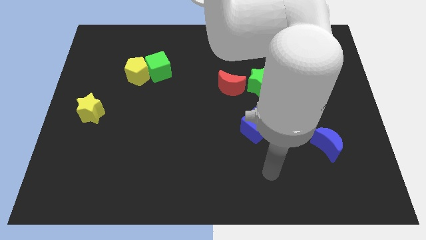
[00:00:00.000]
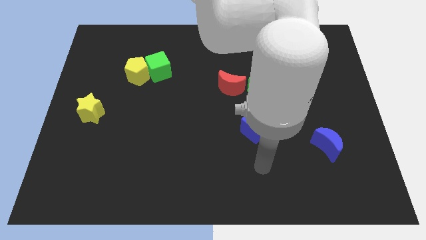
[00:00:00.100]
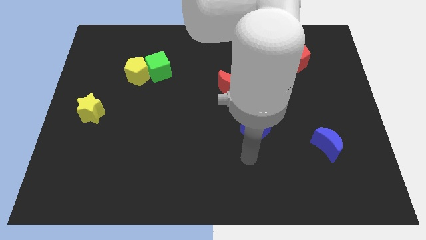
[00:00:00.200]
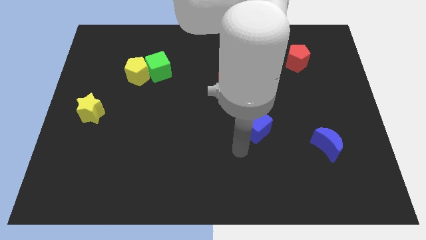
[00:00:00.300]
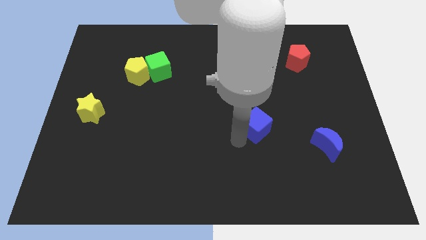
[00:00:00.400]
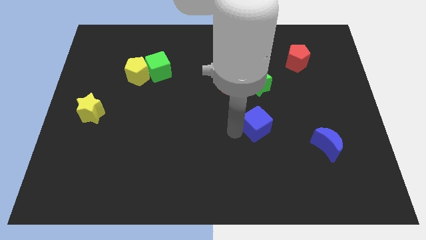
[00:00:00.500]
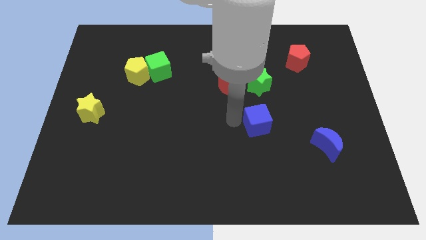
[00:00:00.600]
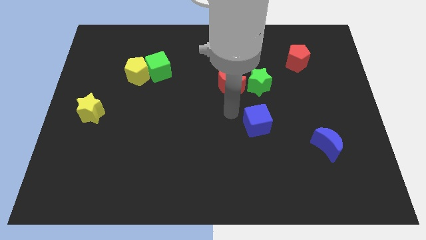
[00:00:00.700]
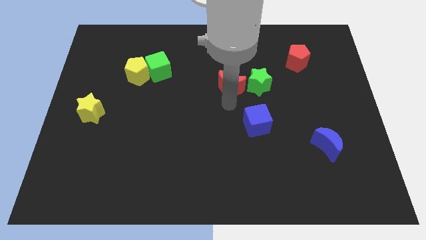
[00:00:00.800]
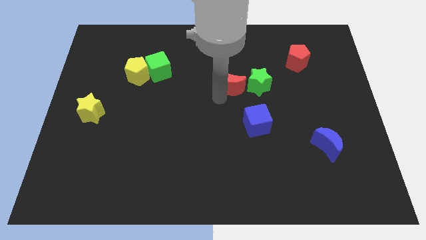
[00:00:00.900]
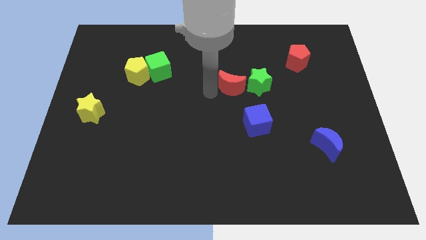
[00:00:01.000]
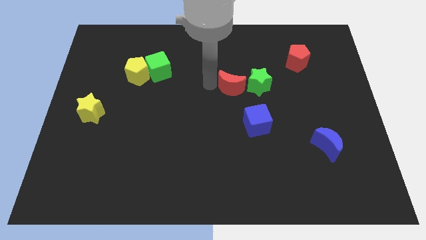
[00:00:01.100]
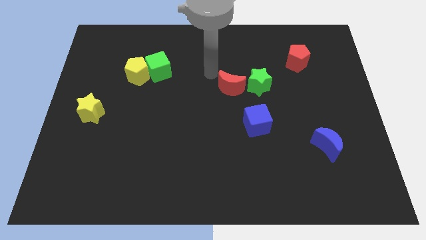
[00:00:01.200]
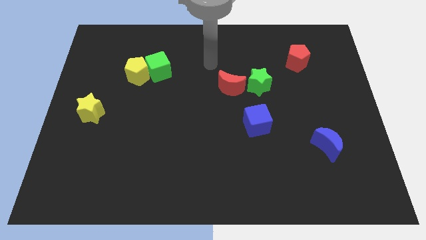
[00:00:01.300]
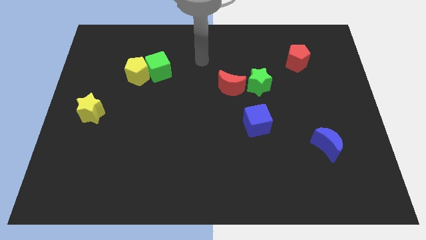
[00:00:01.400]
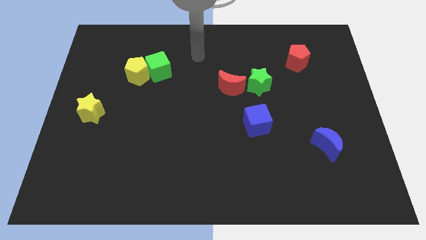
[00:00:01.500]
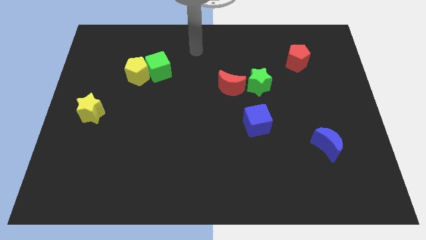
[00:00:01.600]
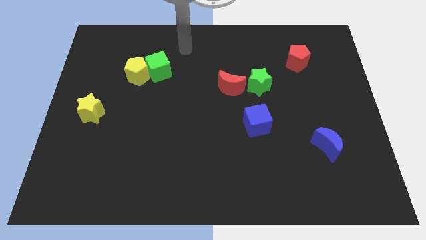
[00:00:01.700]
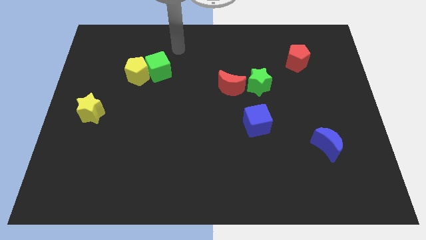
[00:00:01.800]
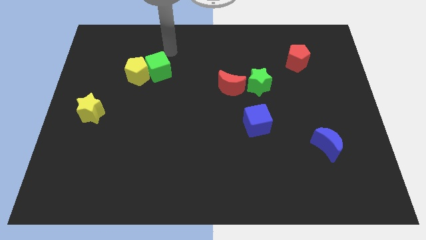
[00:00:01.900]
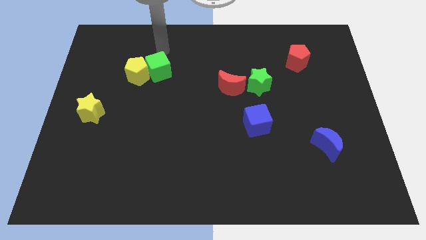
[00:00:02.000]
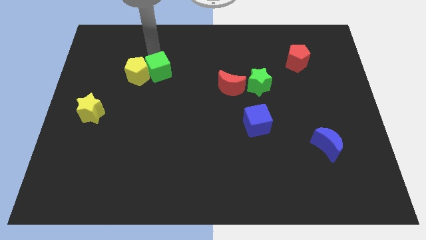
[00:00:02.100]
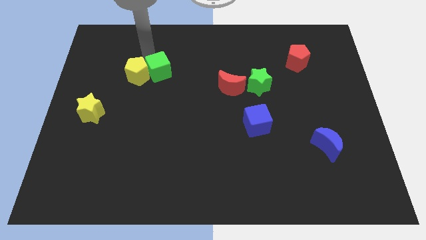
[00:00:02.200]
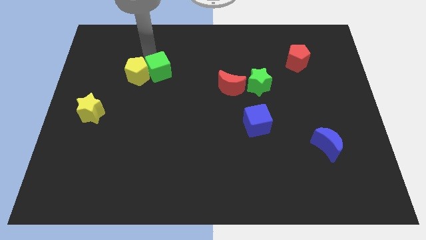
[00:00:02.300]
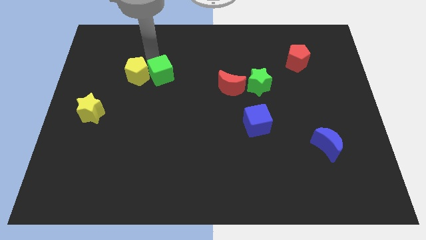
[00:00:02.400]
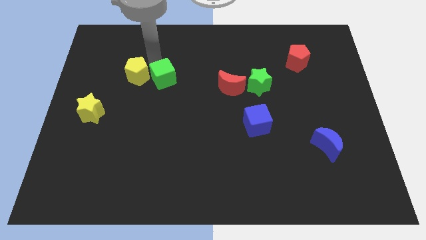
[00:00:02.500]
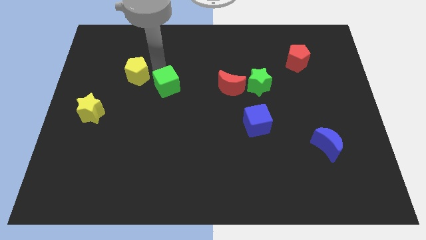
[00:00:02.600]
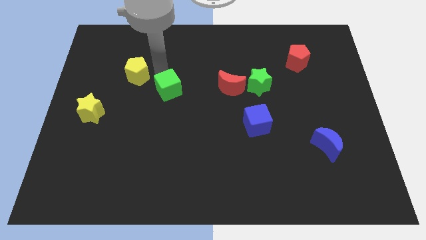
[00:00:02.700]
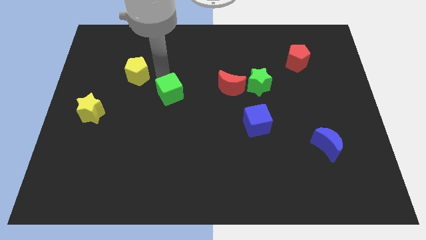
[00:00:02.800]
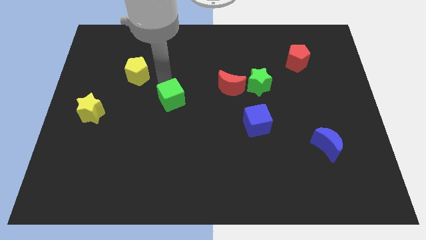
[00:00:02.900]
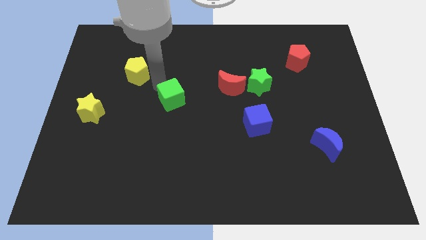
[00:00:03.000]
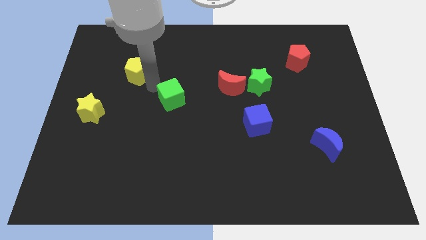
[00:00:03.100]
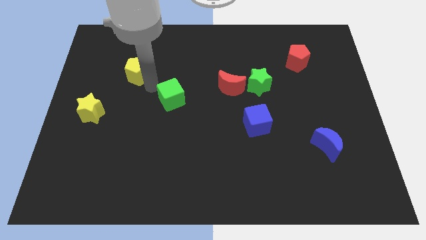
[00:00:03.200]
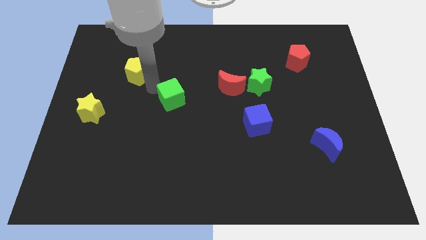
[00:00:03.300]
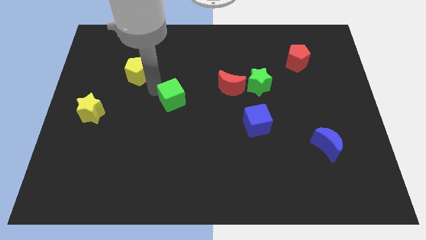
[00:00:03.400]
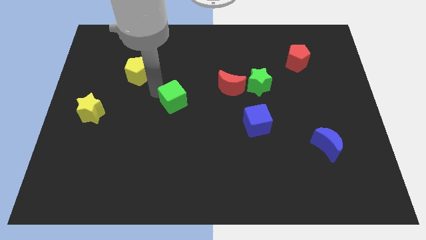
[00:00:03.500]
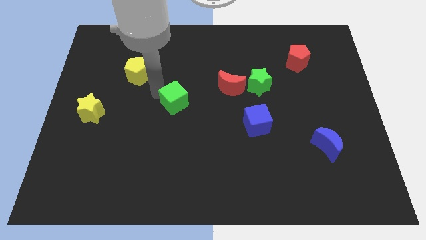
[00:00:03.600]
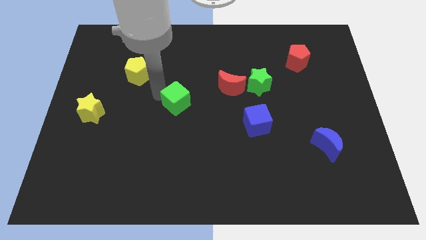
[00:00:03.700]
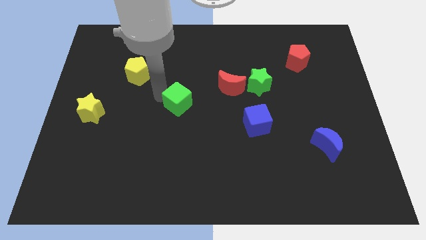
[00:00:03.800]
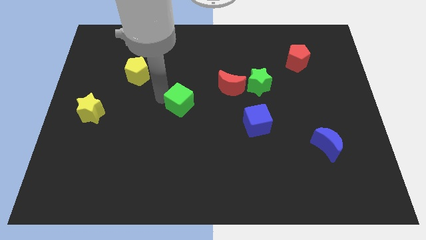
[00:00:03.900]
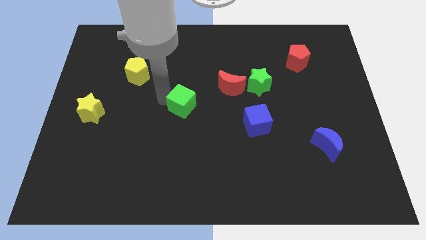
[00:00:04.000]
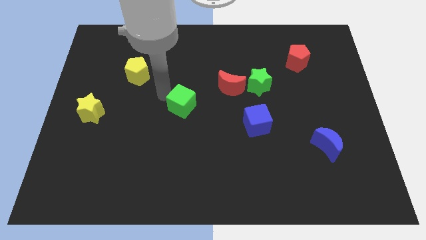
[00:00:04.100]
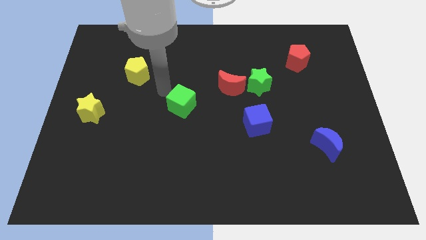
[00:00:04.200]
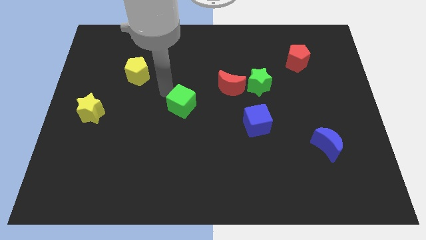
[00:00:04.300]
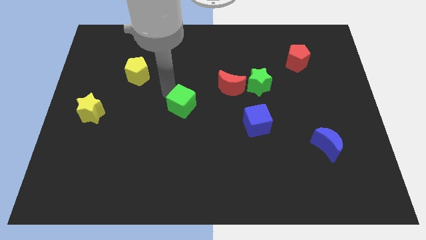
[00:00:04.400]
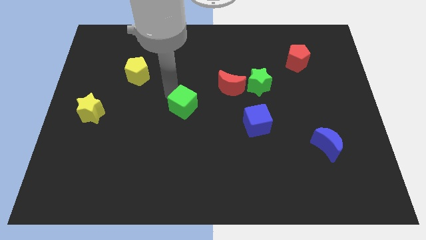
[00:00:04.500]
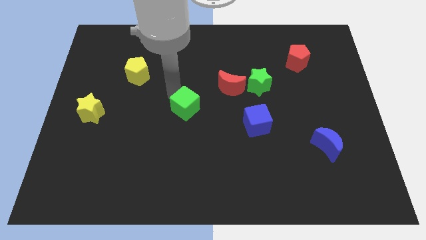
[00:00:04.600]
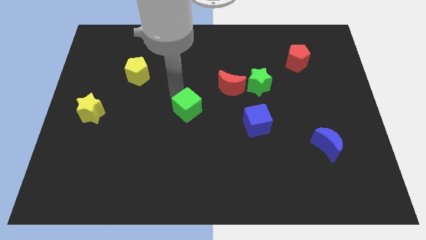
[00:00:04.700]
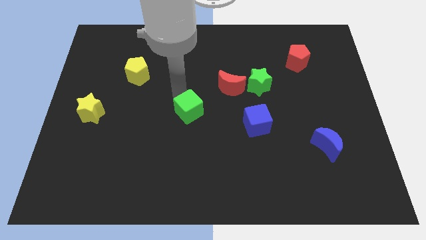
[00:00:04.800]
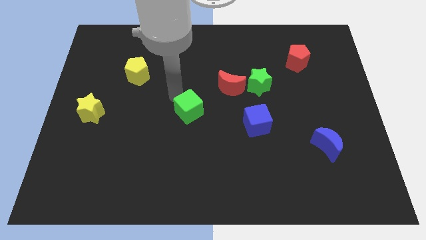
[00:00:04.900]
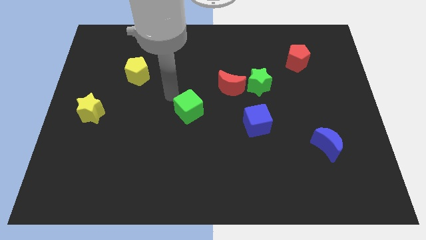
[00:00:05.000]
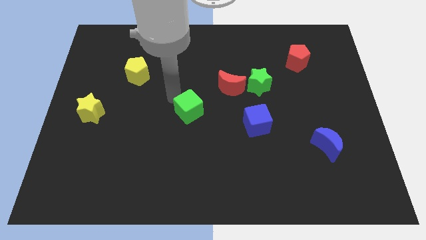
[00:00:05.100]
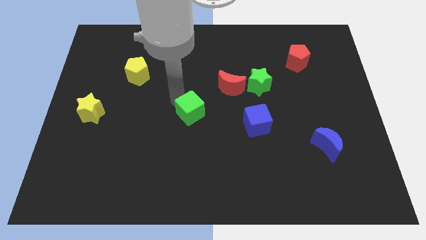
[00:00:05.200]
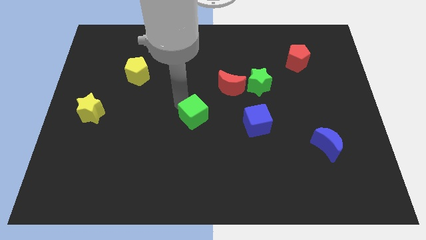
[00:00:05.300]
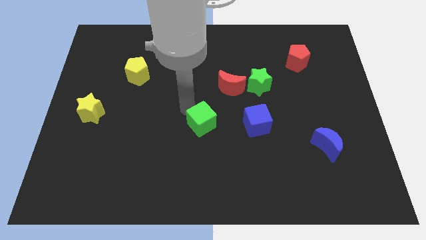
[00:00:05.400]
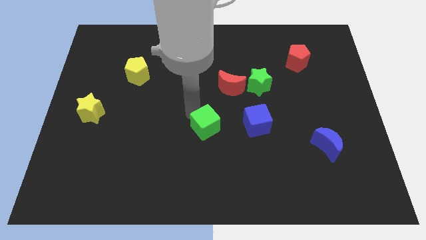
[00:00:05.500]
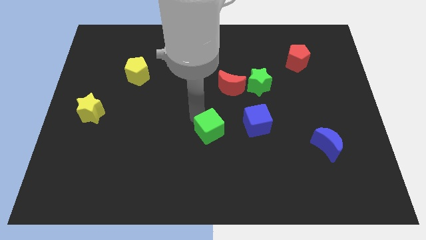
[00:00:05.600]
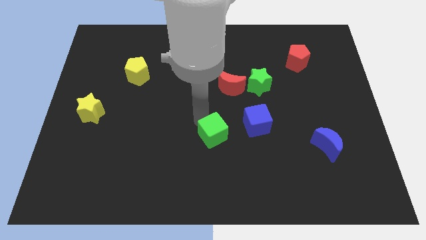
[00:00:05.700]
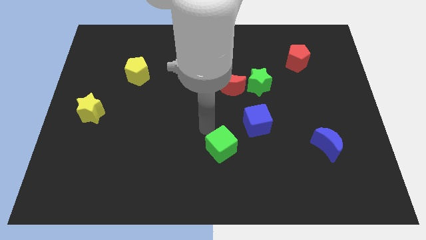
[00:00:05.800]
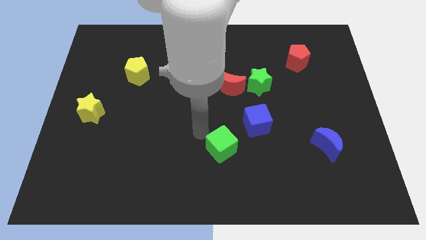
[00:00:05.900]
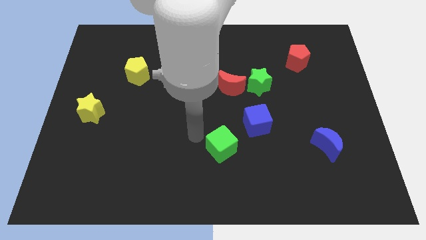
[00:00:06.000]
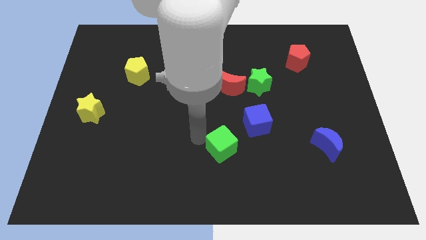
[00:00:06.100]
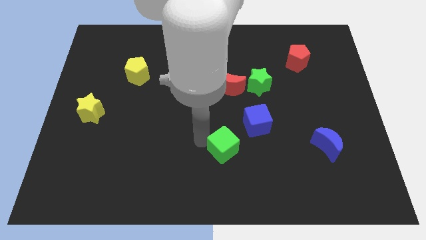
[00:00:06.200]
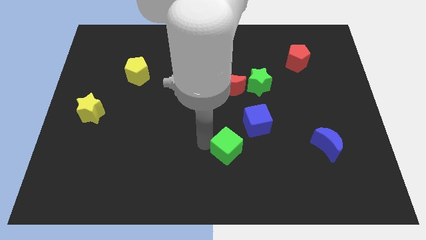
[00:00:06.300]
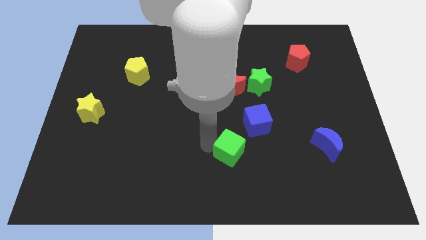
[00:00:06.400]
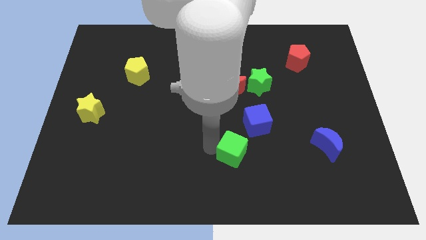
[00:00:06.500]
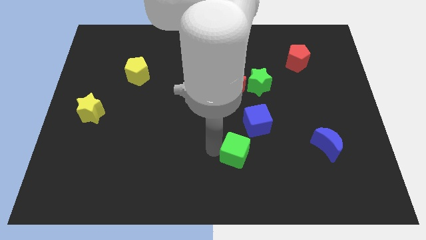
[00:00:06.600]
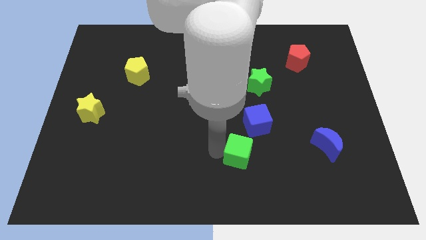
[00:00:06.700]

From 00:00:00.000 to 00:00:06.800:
push the green cube to the bottom of the blue cube

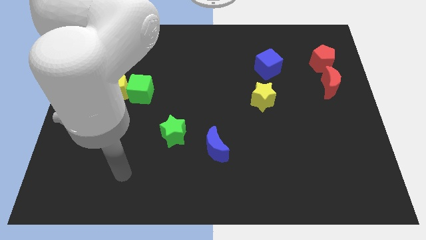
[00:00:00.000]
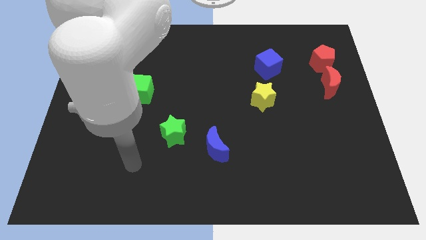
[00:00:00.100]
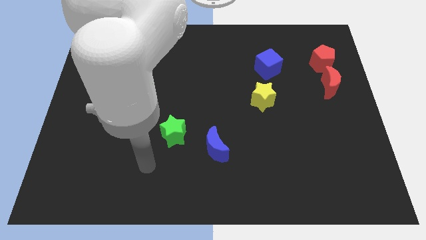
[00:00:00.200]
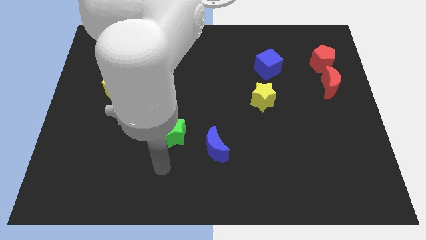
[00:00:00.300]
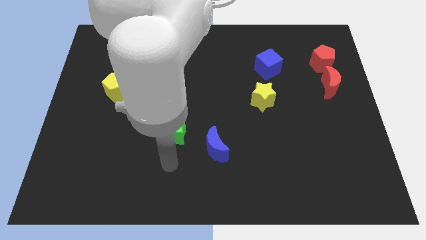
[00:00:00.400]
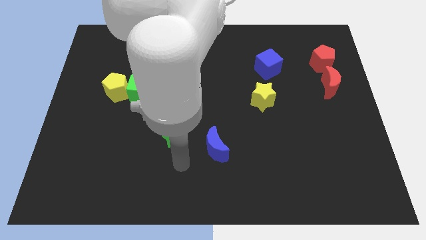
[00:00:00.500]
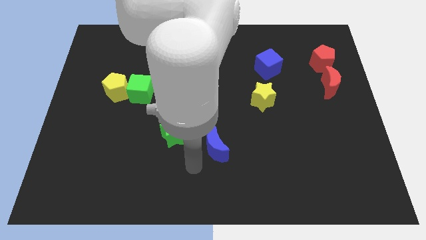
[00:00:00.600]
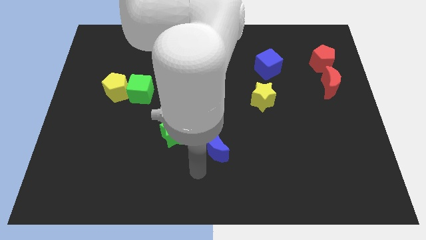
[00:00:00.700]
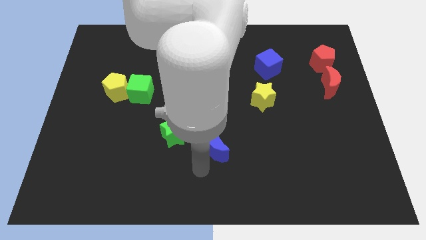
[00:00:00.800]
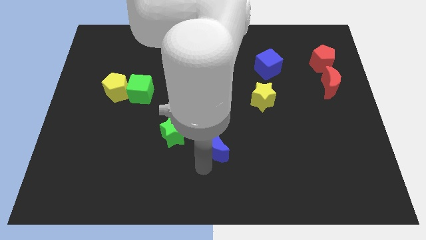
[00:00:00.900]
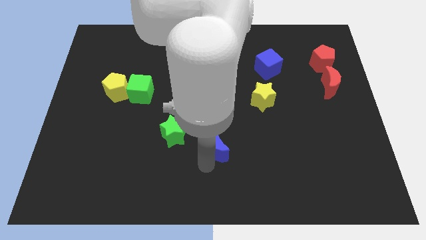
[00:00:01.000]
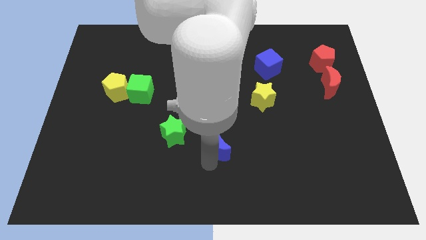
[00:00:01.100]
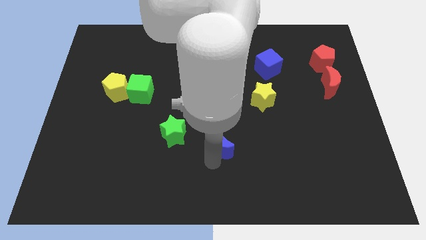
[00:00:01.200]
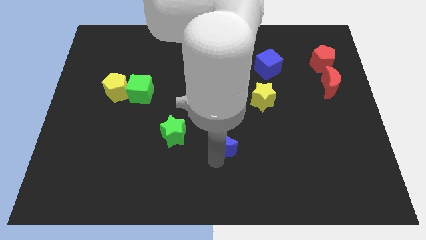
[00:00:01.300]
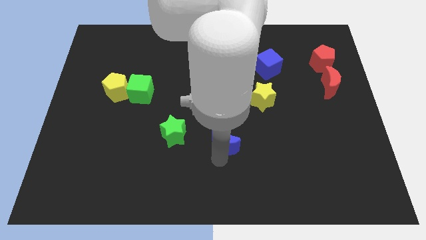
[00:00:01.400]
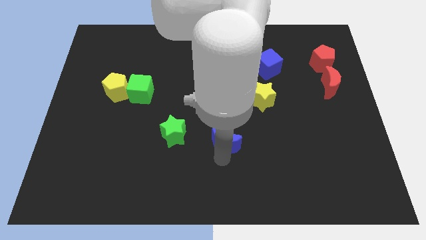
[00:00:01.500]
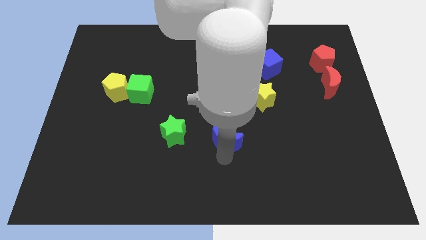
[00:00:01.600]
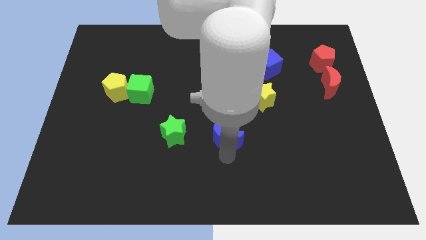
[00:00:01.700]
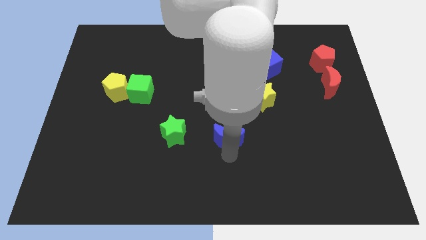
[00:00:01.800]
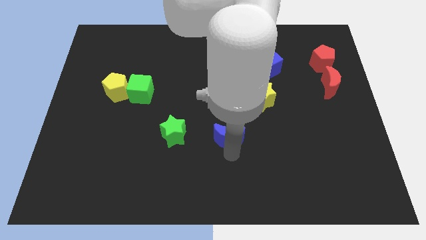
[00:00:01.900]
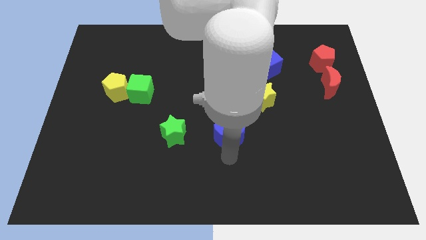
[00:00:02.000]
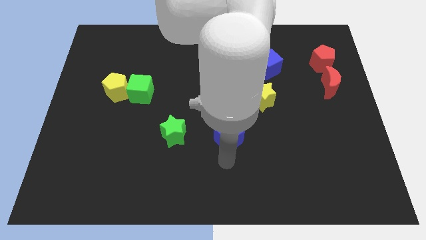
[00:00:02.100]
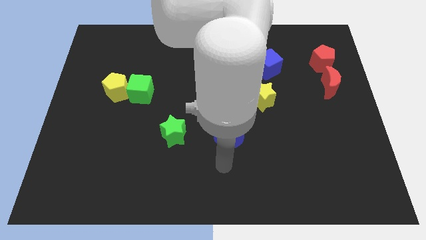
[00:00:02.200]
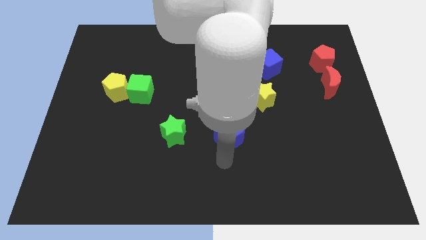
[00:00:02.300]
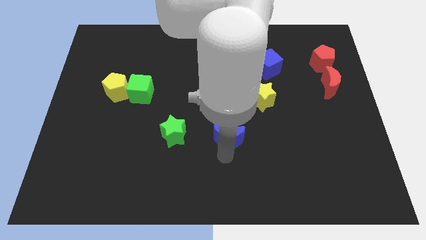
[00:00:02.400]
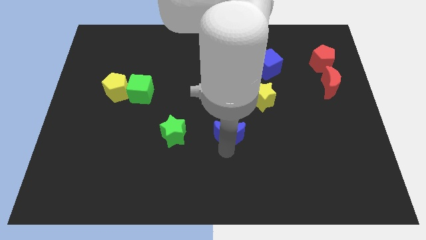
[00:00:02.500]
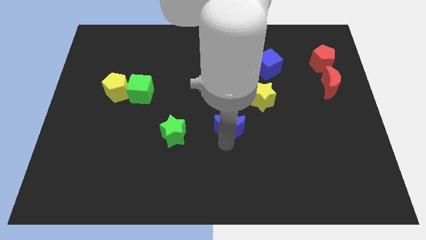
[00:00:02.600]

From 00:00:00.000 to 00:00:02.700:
slide the blue moon to the bottom left of the yellow star
